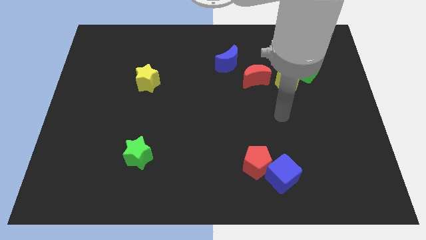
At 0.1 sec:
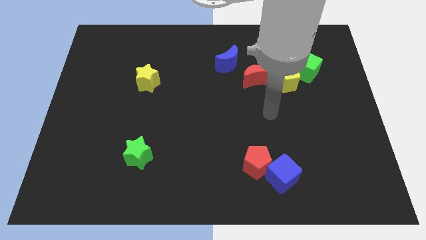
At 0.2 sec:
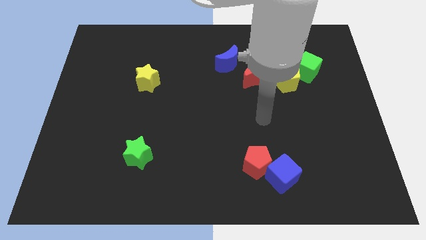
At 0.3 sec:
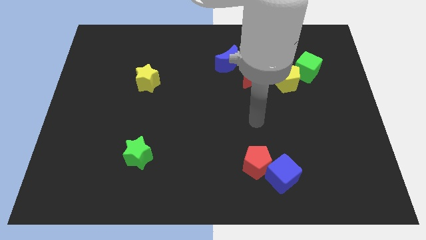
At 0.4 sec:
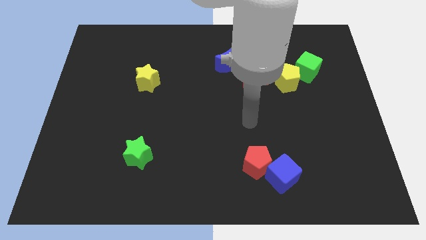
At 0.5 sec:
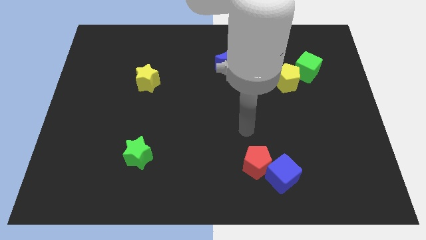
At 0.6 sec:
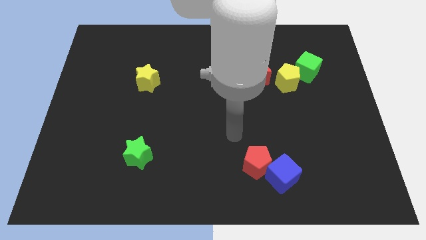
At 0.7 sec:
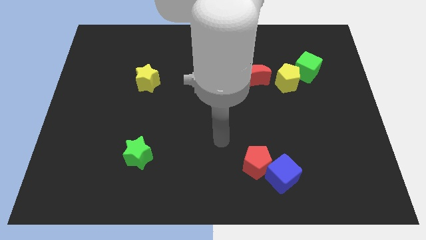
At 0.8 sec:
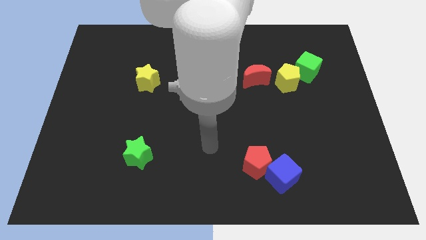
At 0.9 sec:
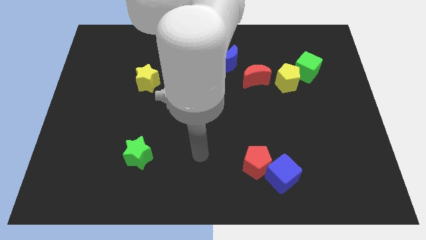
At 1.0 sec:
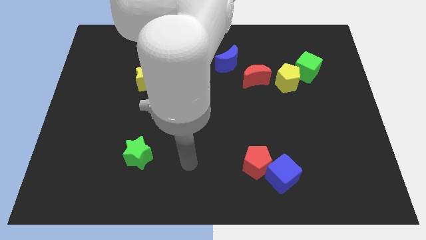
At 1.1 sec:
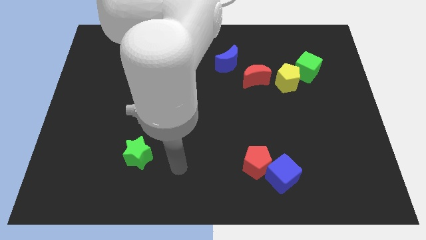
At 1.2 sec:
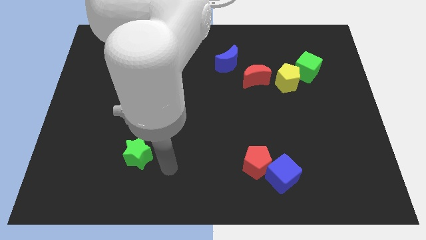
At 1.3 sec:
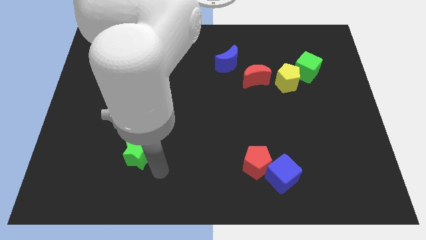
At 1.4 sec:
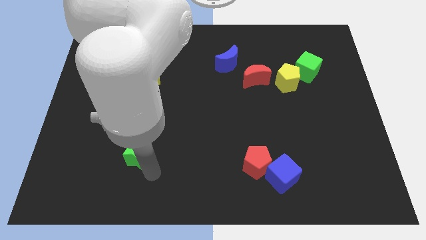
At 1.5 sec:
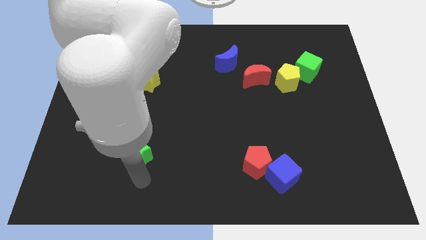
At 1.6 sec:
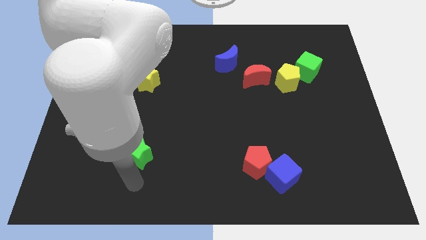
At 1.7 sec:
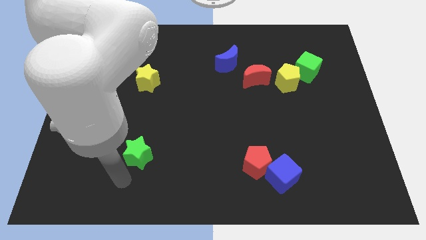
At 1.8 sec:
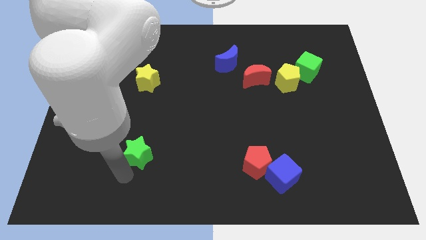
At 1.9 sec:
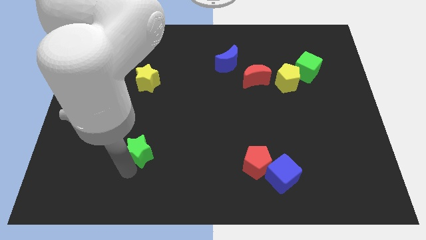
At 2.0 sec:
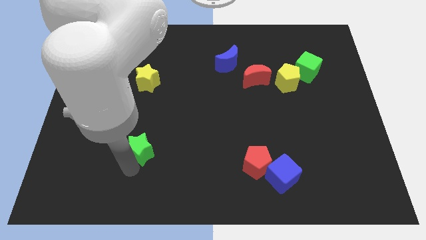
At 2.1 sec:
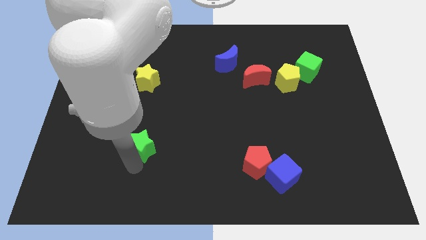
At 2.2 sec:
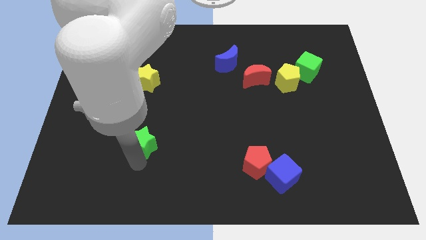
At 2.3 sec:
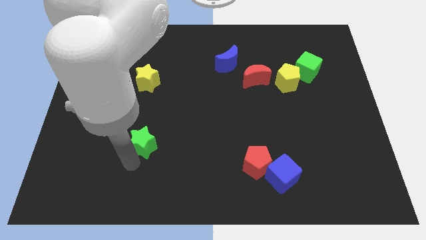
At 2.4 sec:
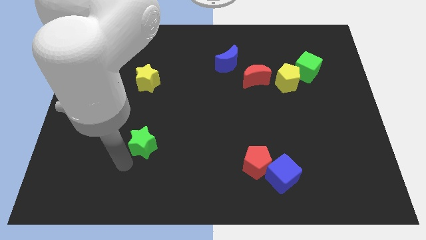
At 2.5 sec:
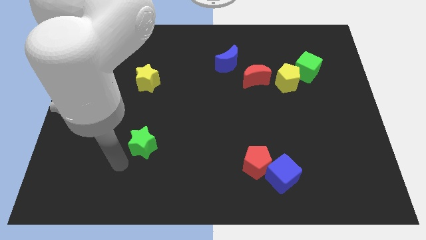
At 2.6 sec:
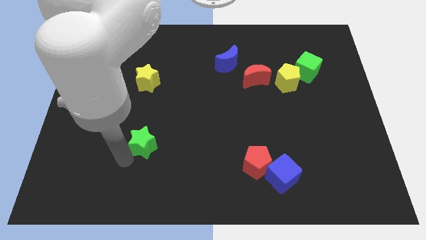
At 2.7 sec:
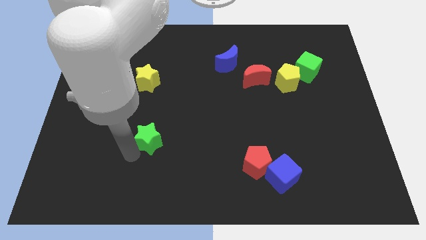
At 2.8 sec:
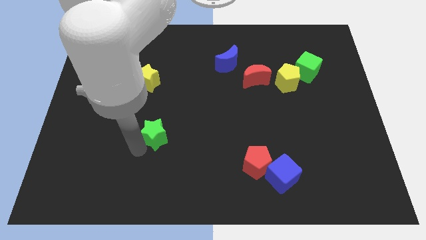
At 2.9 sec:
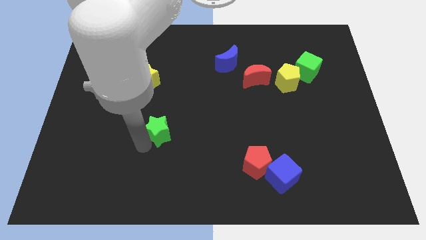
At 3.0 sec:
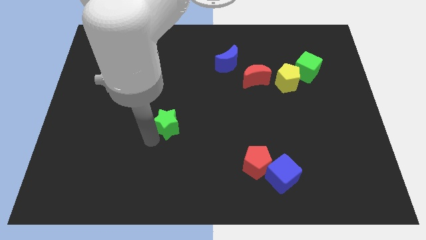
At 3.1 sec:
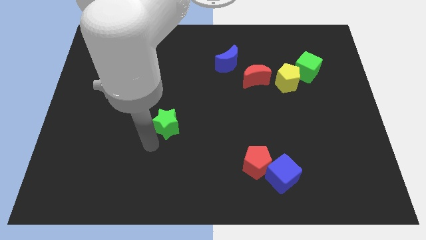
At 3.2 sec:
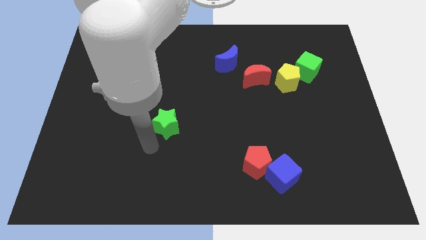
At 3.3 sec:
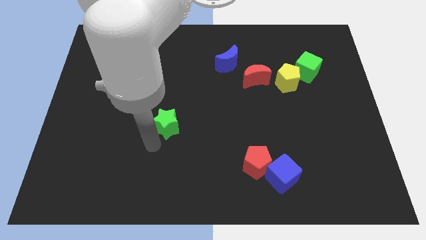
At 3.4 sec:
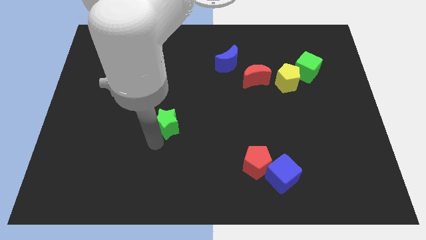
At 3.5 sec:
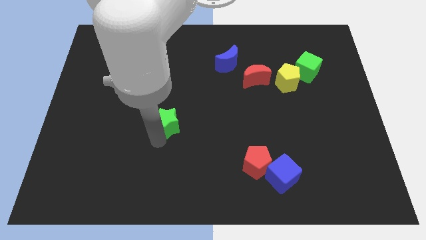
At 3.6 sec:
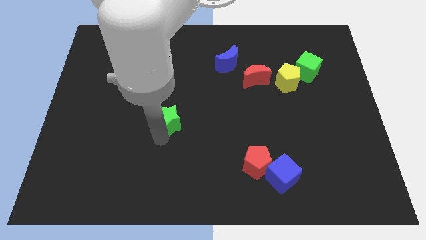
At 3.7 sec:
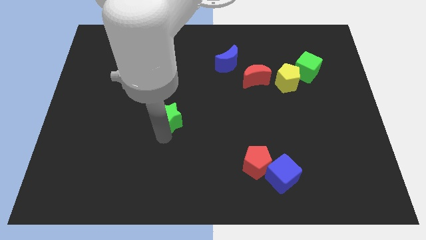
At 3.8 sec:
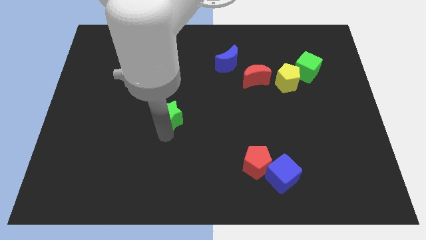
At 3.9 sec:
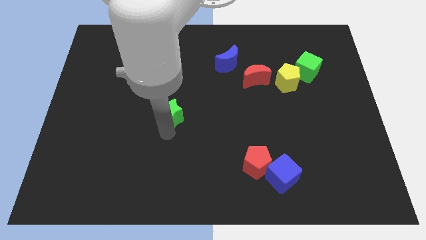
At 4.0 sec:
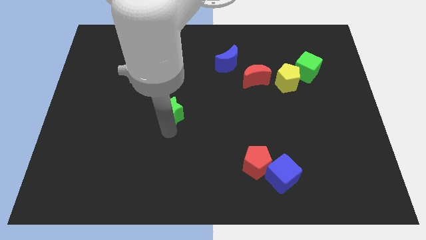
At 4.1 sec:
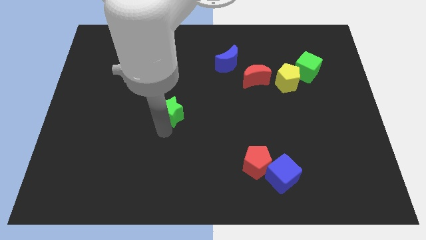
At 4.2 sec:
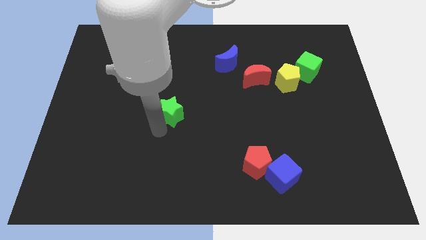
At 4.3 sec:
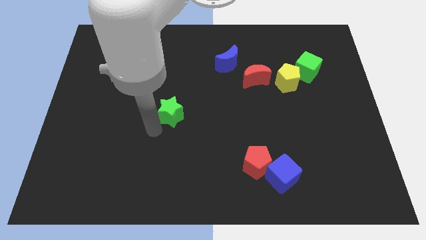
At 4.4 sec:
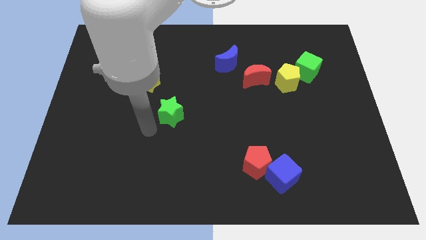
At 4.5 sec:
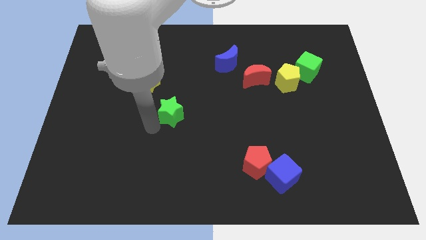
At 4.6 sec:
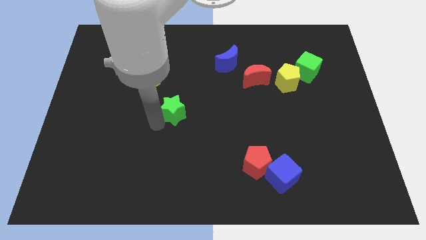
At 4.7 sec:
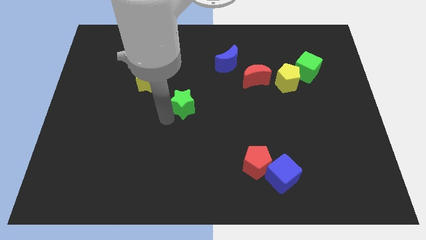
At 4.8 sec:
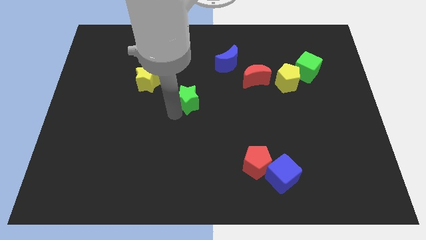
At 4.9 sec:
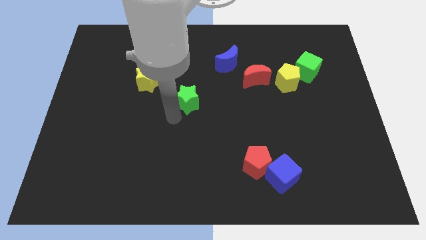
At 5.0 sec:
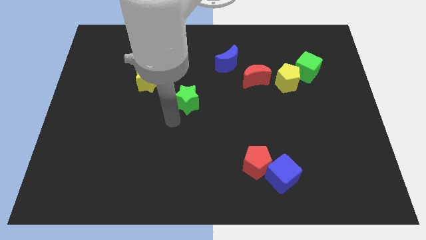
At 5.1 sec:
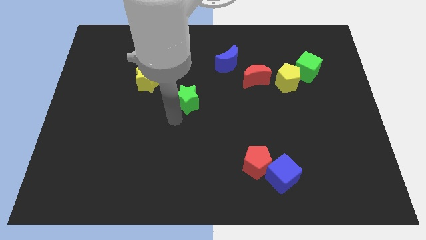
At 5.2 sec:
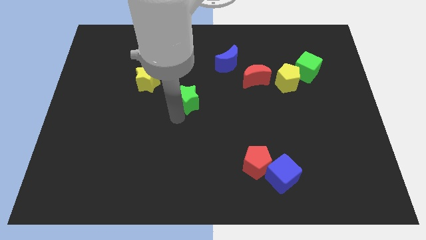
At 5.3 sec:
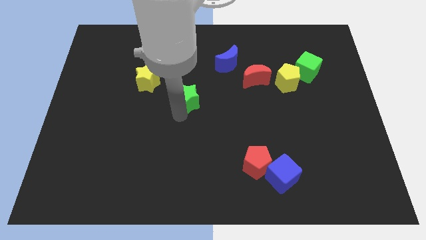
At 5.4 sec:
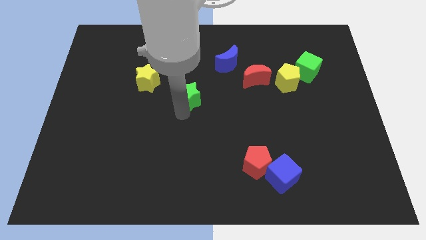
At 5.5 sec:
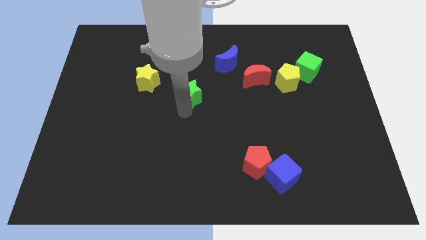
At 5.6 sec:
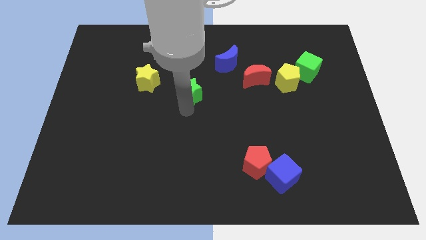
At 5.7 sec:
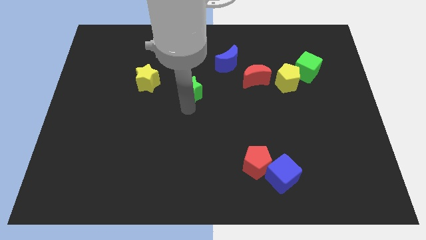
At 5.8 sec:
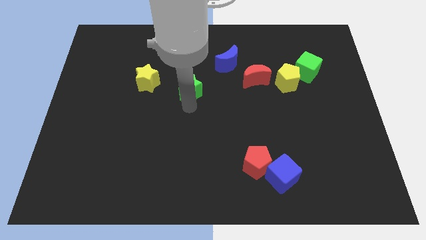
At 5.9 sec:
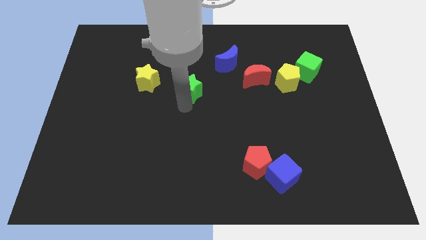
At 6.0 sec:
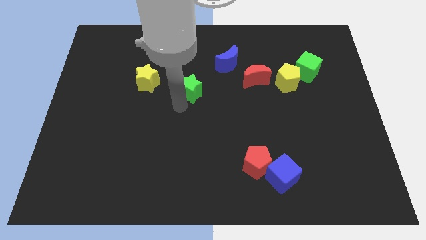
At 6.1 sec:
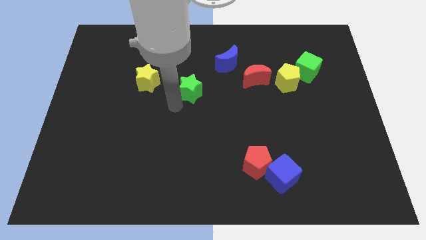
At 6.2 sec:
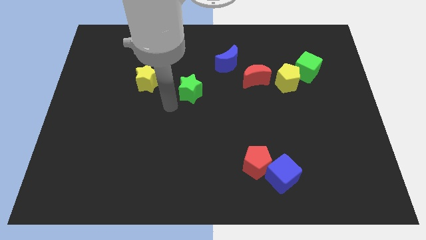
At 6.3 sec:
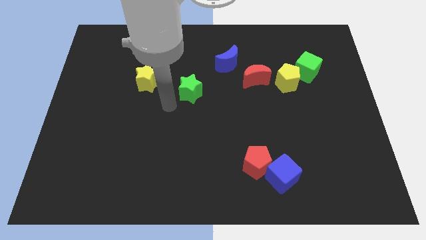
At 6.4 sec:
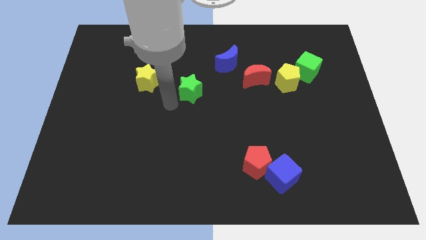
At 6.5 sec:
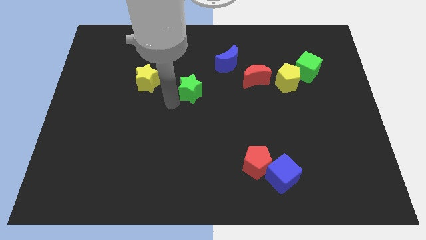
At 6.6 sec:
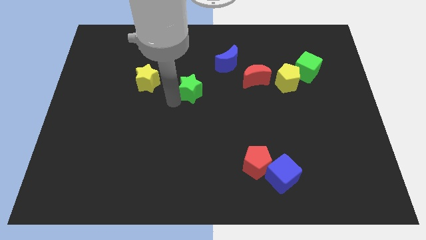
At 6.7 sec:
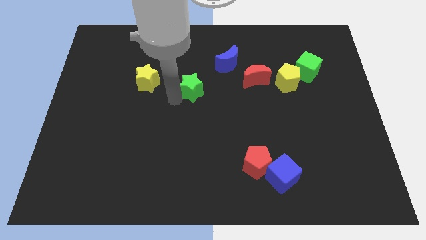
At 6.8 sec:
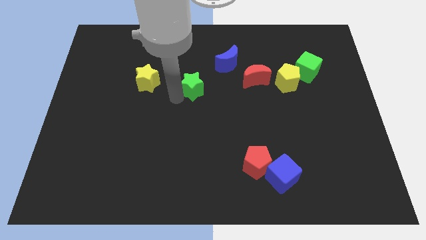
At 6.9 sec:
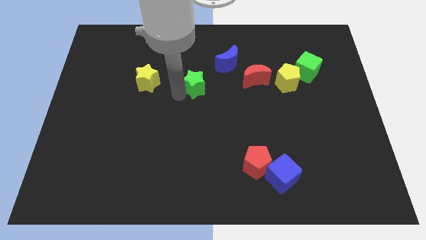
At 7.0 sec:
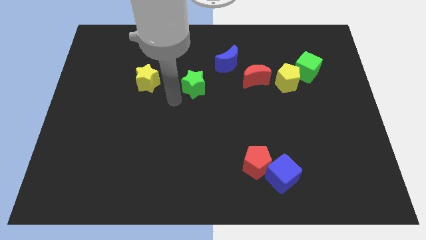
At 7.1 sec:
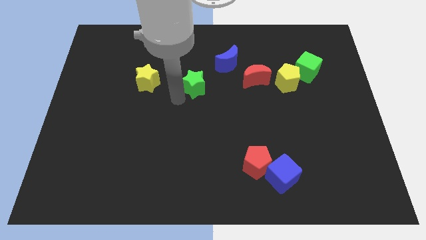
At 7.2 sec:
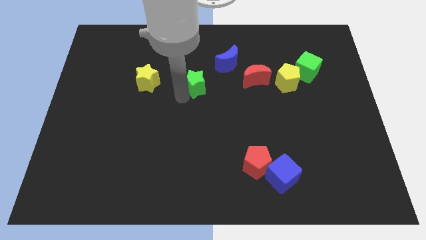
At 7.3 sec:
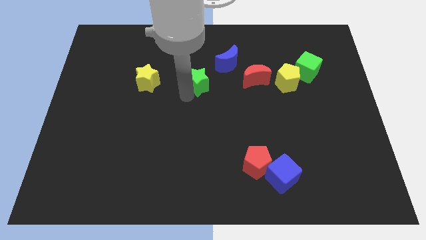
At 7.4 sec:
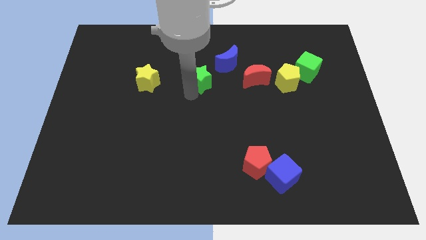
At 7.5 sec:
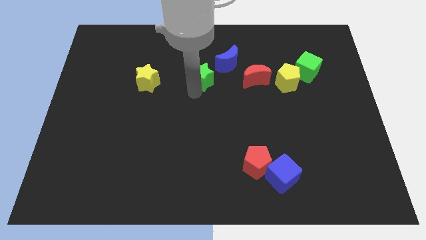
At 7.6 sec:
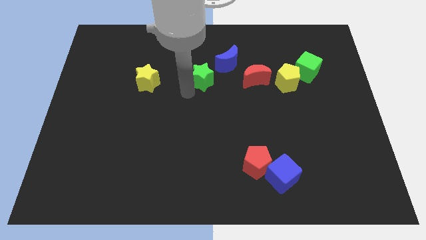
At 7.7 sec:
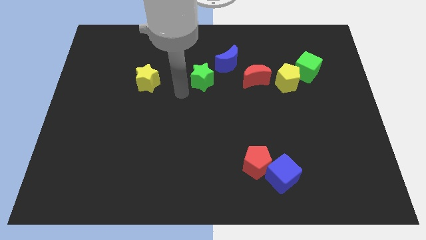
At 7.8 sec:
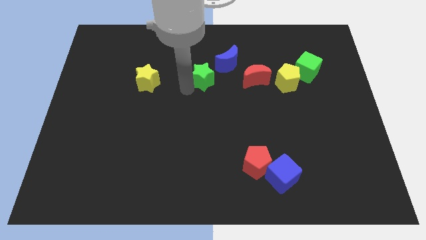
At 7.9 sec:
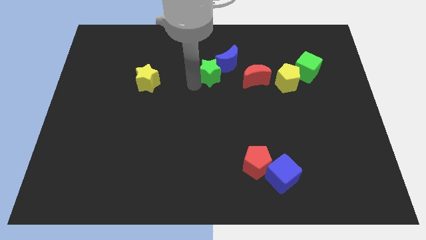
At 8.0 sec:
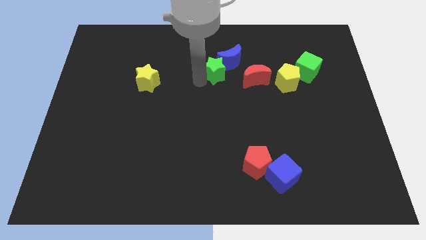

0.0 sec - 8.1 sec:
push the green star towards the blue moon
